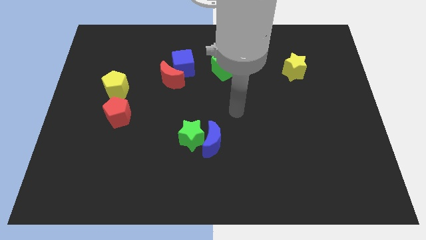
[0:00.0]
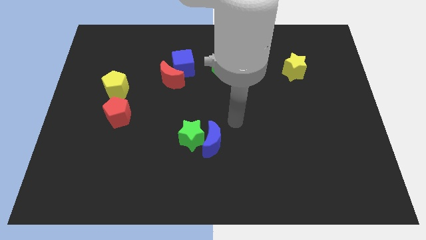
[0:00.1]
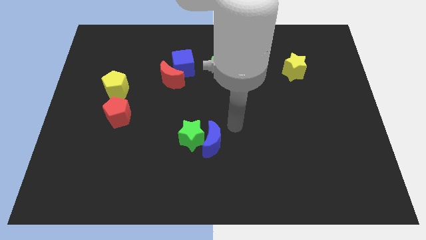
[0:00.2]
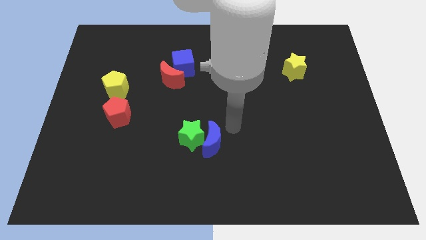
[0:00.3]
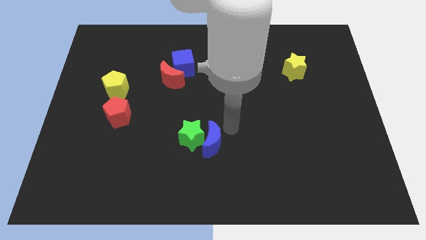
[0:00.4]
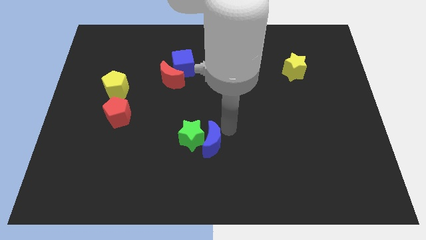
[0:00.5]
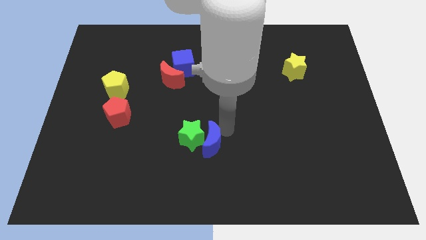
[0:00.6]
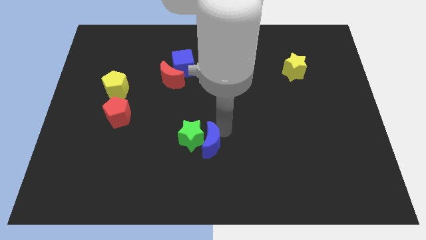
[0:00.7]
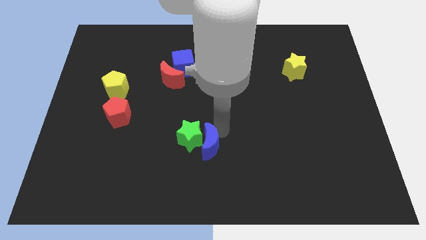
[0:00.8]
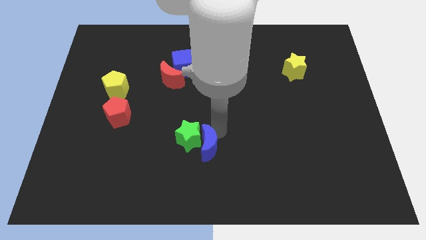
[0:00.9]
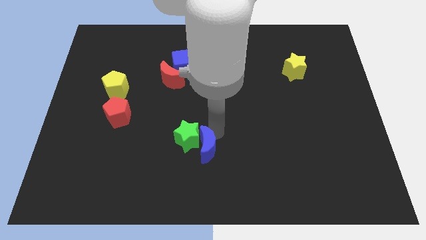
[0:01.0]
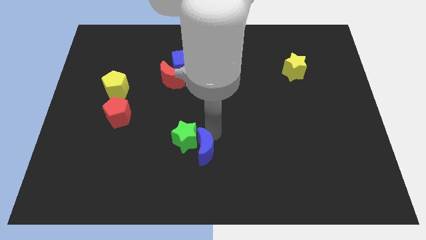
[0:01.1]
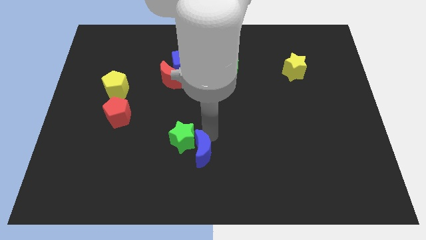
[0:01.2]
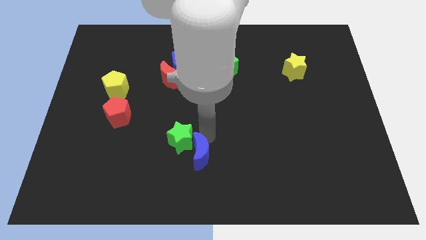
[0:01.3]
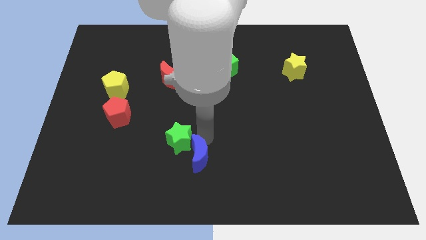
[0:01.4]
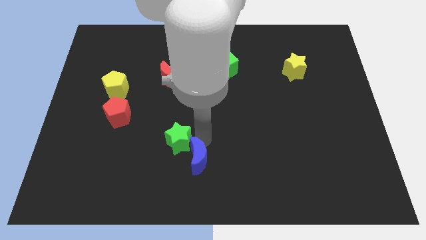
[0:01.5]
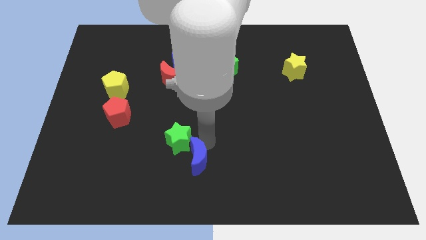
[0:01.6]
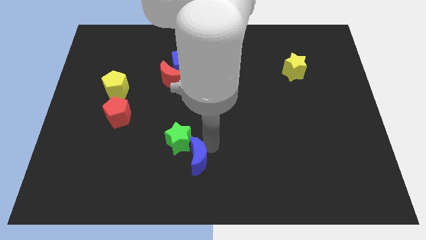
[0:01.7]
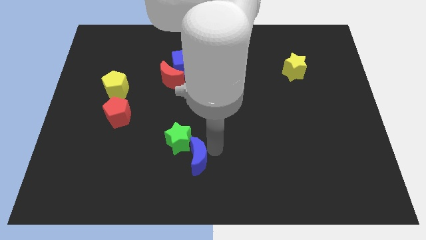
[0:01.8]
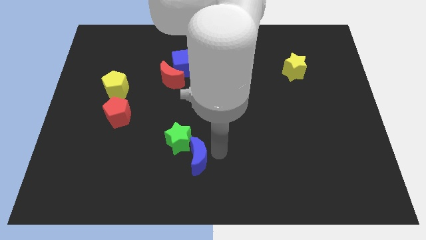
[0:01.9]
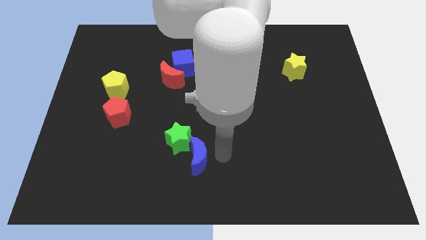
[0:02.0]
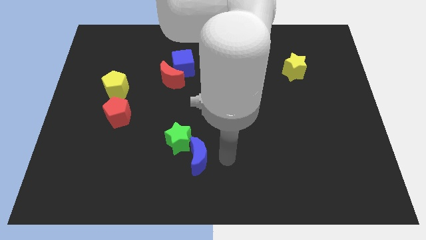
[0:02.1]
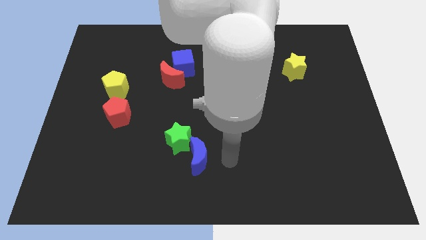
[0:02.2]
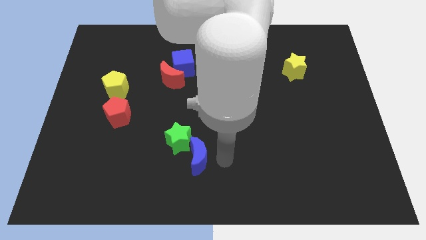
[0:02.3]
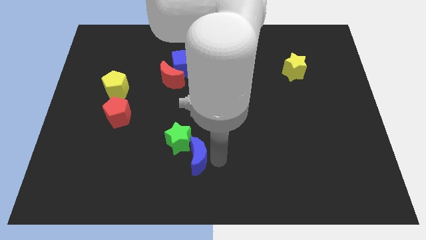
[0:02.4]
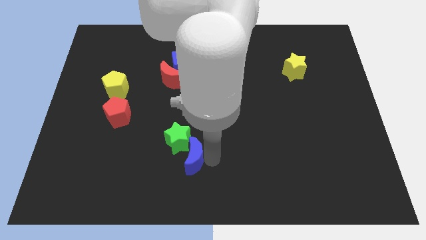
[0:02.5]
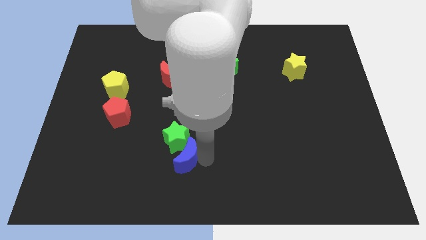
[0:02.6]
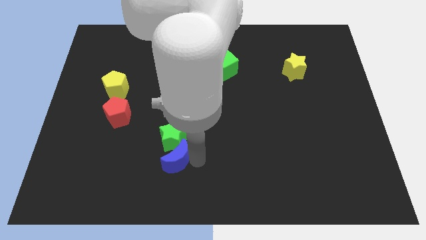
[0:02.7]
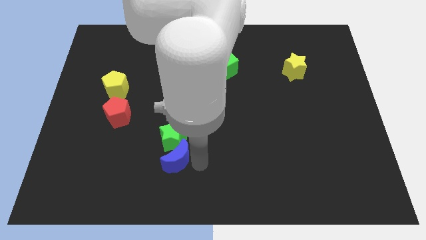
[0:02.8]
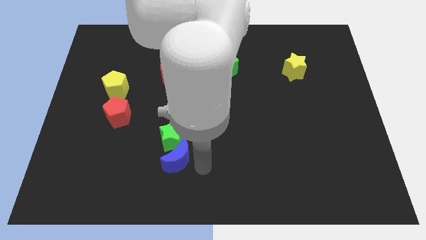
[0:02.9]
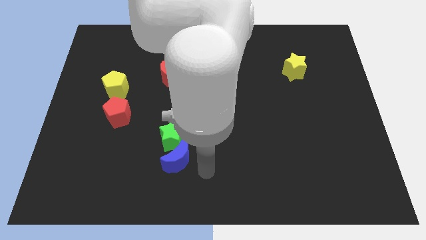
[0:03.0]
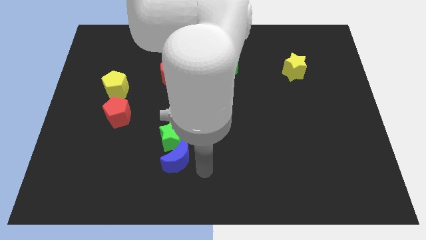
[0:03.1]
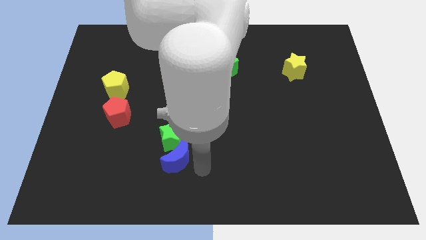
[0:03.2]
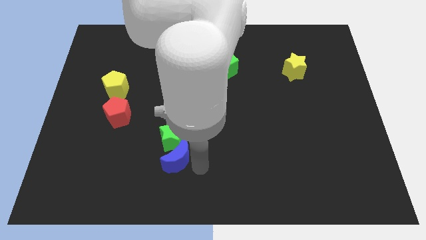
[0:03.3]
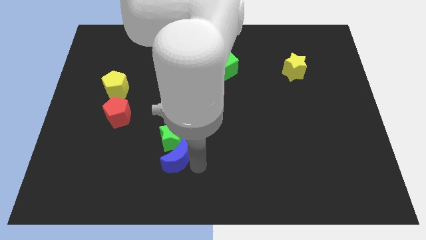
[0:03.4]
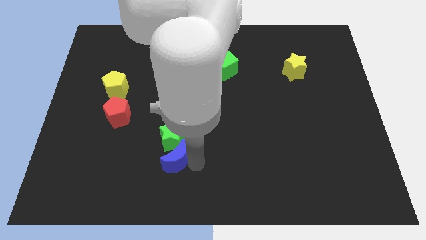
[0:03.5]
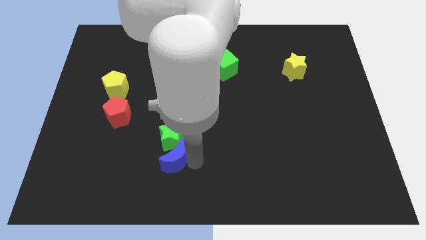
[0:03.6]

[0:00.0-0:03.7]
slide the blue moon left a little bit

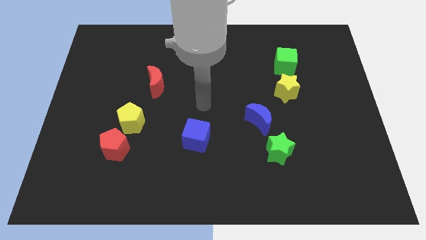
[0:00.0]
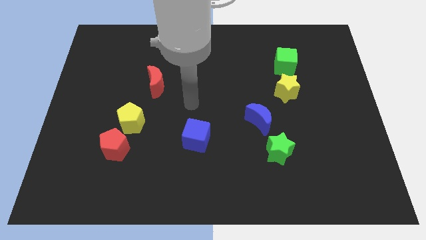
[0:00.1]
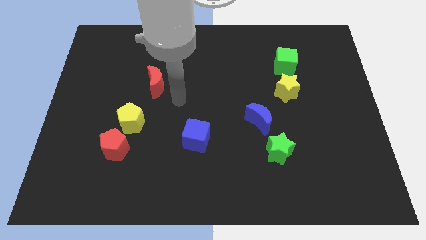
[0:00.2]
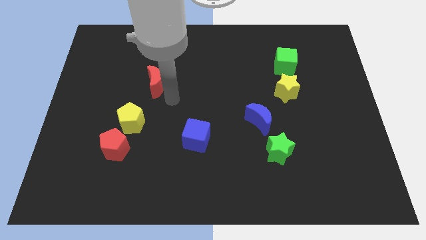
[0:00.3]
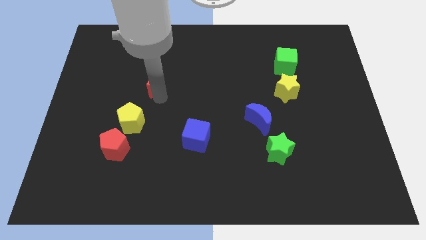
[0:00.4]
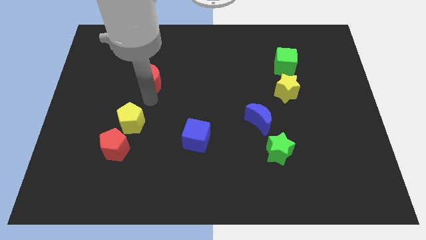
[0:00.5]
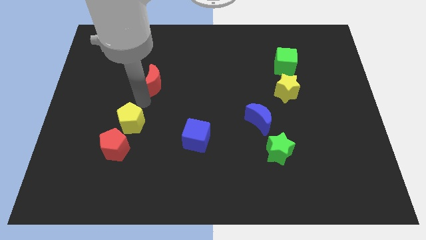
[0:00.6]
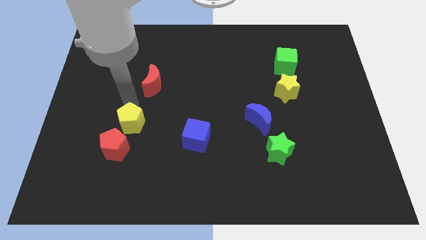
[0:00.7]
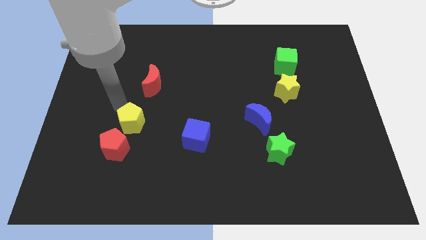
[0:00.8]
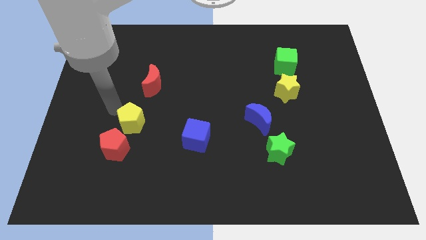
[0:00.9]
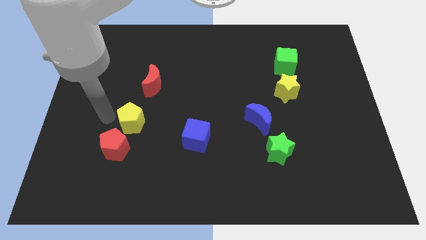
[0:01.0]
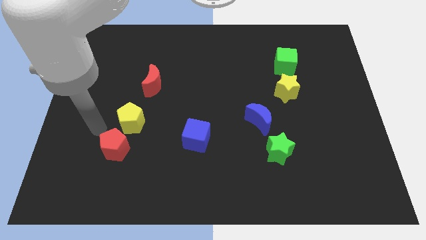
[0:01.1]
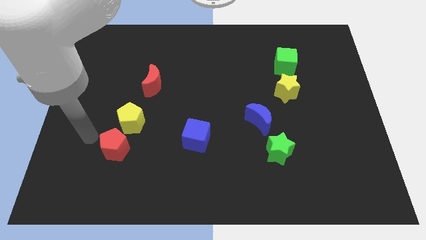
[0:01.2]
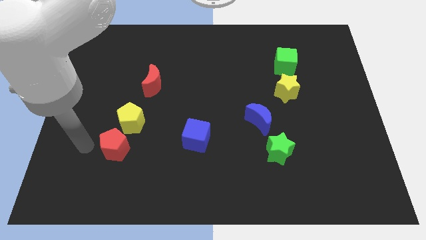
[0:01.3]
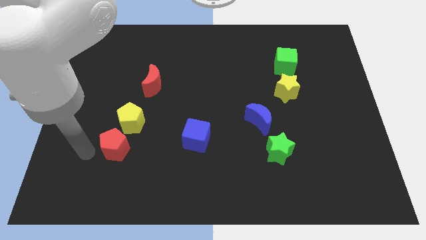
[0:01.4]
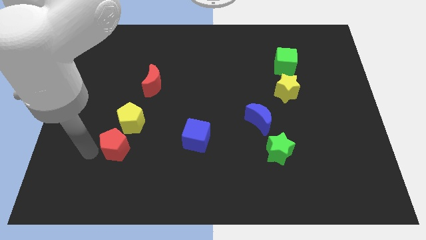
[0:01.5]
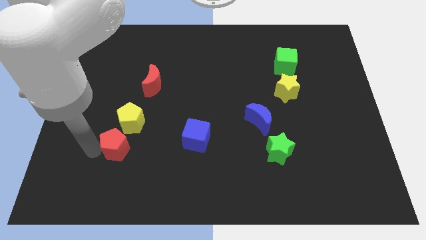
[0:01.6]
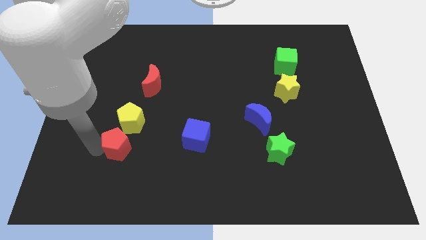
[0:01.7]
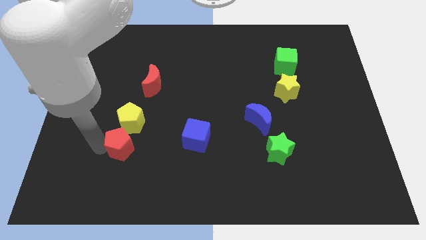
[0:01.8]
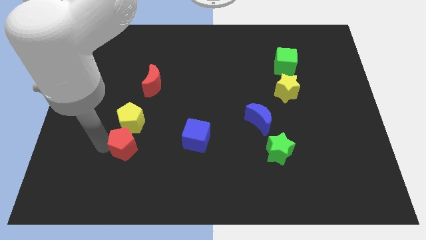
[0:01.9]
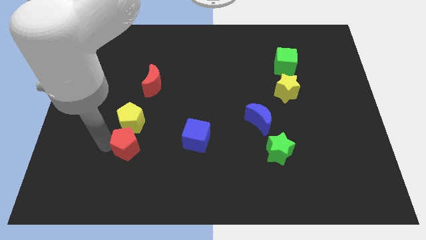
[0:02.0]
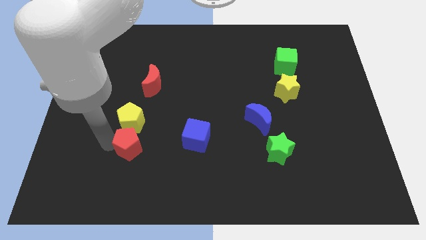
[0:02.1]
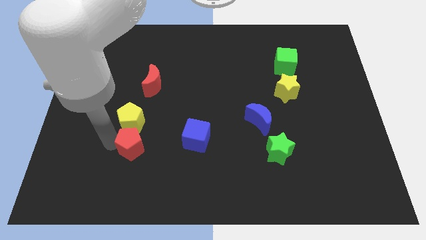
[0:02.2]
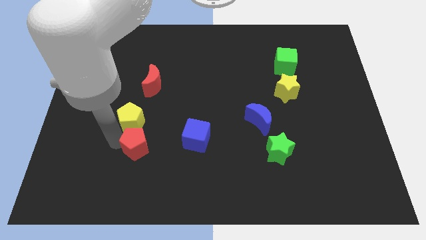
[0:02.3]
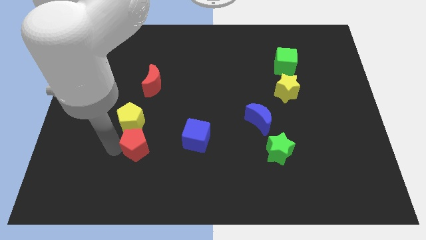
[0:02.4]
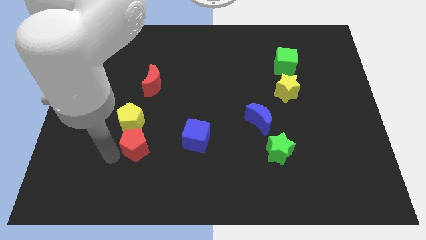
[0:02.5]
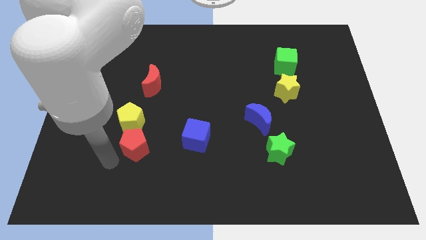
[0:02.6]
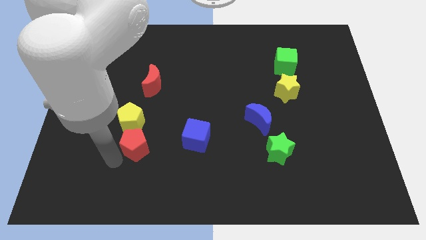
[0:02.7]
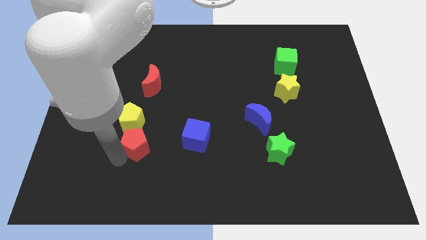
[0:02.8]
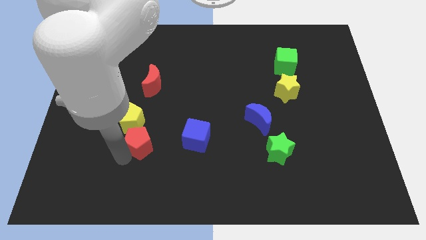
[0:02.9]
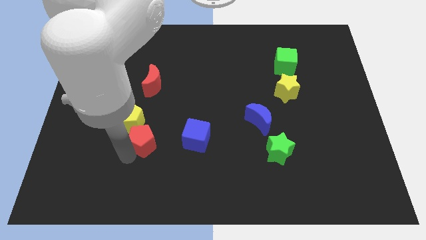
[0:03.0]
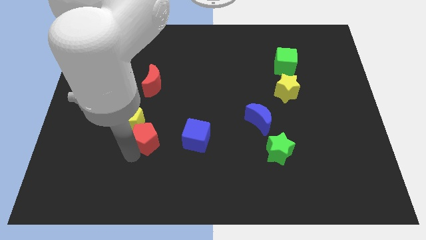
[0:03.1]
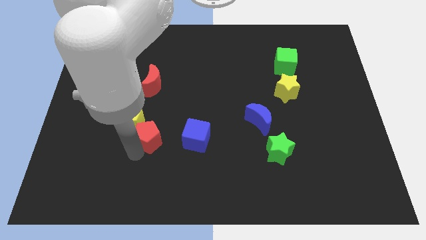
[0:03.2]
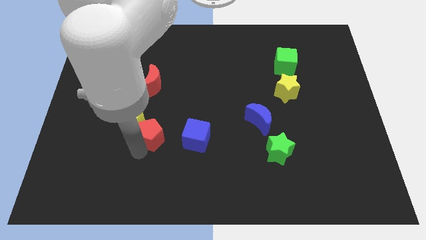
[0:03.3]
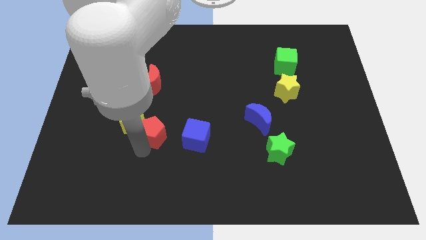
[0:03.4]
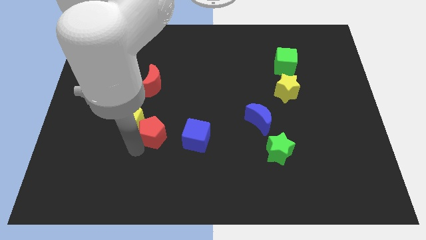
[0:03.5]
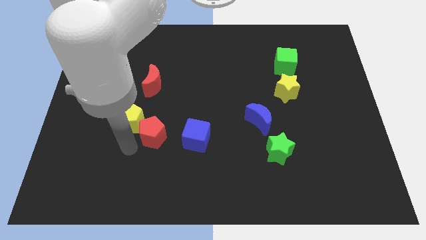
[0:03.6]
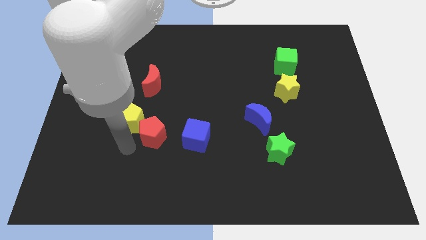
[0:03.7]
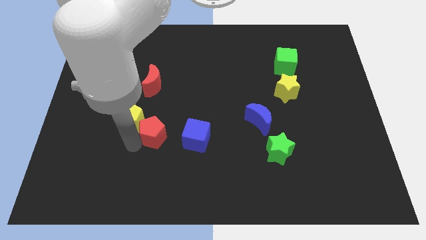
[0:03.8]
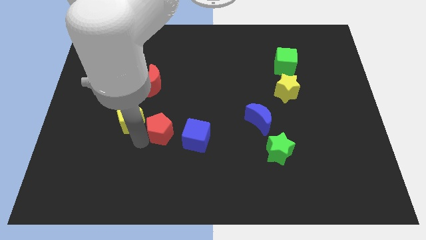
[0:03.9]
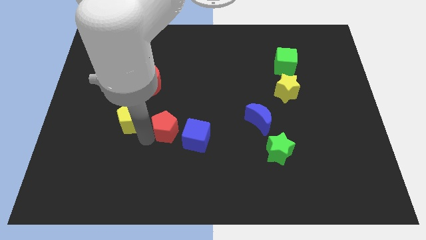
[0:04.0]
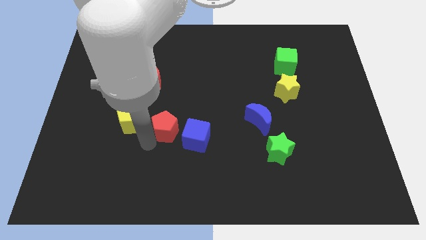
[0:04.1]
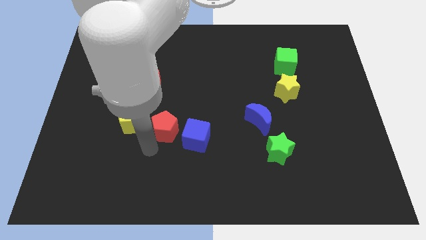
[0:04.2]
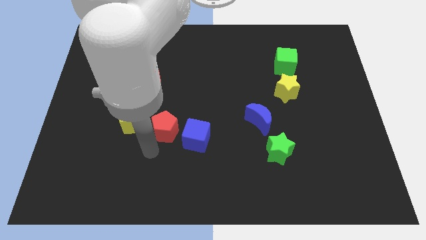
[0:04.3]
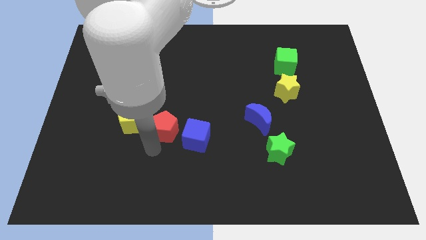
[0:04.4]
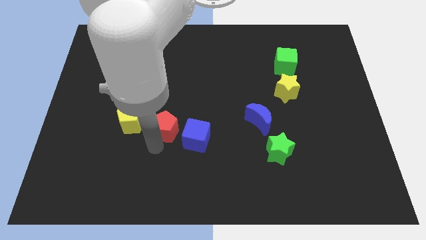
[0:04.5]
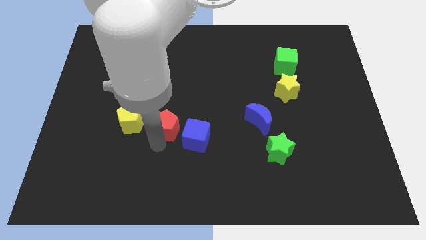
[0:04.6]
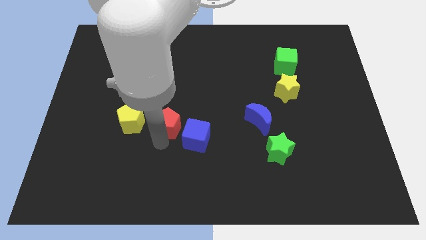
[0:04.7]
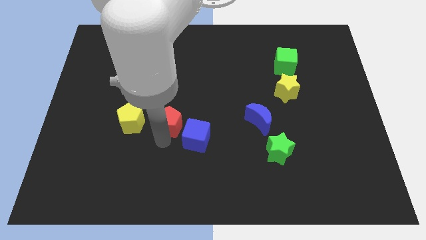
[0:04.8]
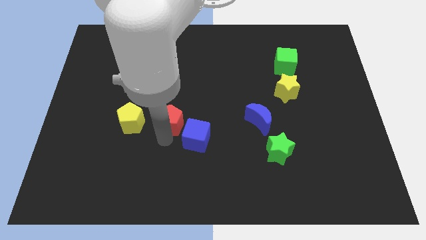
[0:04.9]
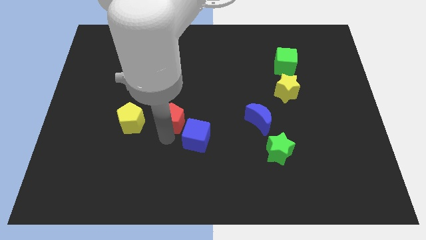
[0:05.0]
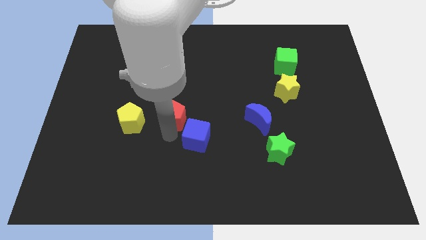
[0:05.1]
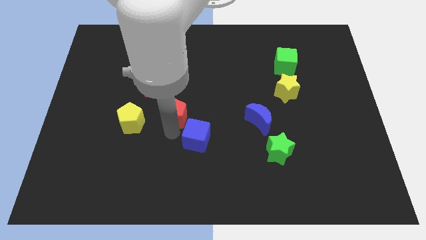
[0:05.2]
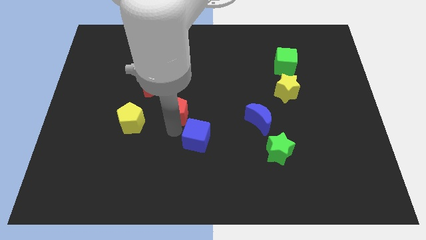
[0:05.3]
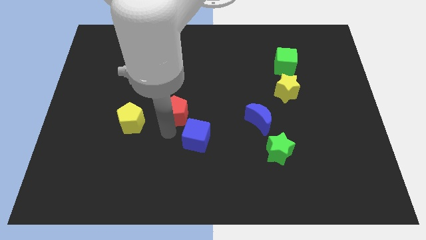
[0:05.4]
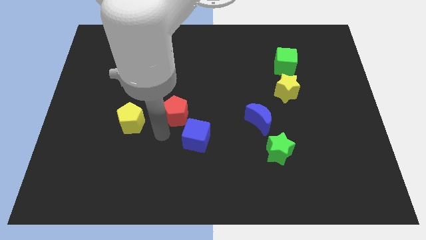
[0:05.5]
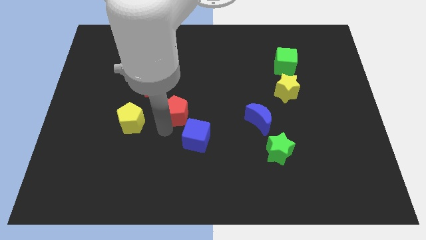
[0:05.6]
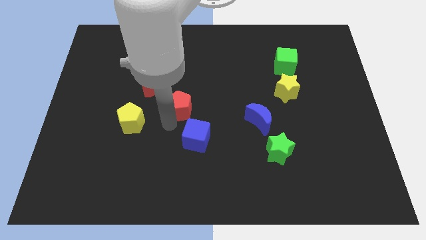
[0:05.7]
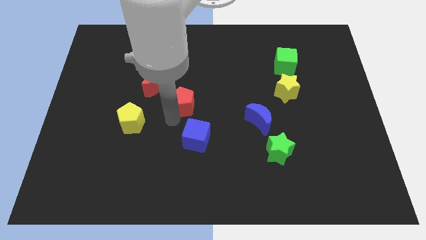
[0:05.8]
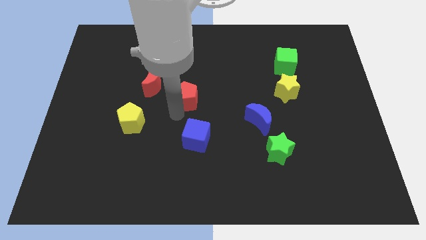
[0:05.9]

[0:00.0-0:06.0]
move the red pentagon diagonally upwards and to the right
